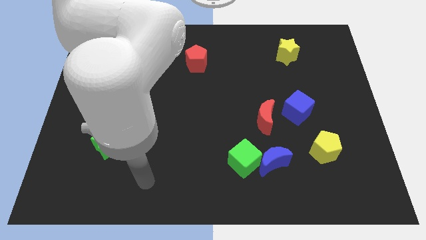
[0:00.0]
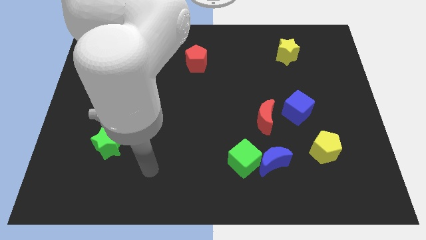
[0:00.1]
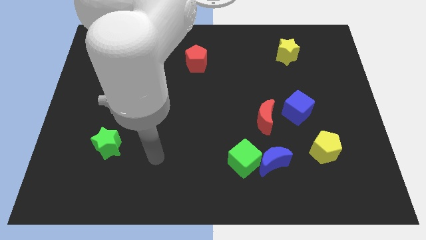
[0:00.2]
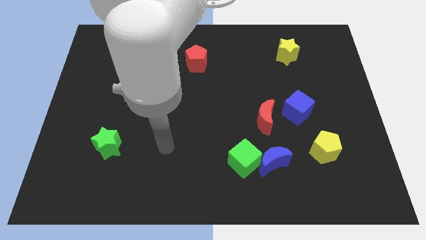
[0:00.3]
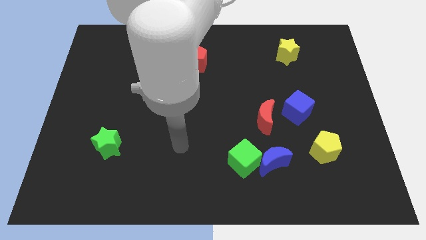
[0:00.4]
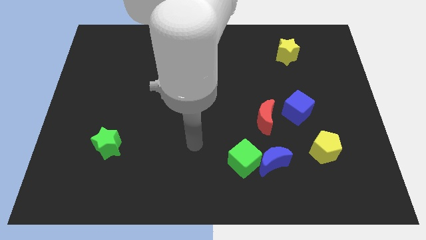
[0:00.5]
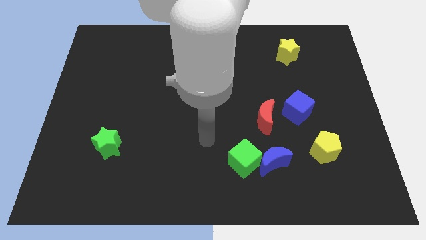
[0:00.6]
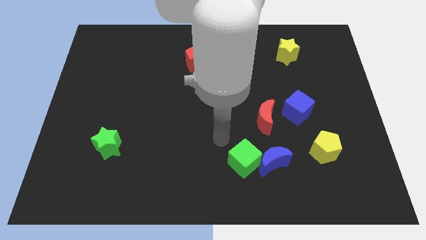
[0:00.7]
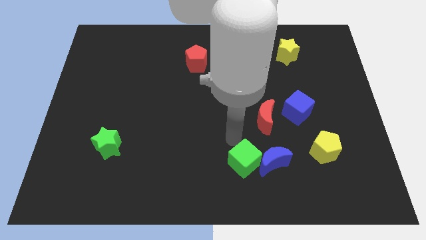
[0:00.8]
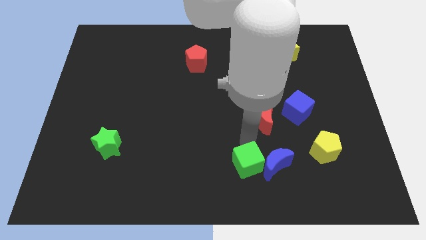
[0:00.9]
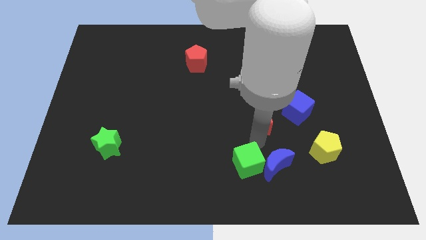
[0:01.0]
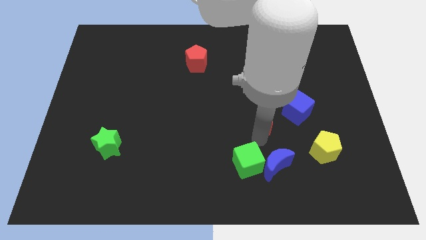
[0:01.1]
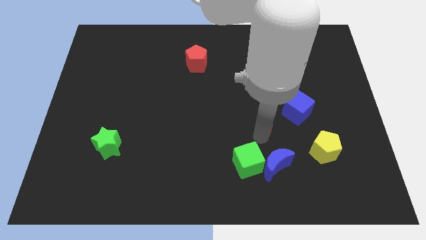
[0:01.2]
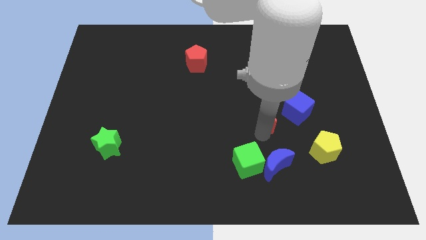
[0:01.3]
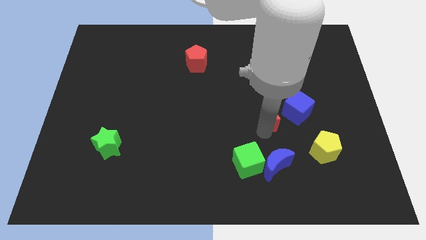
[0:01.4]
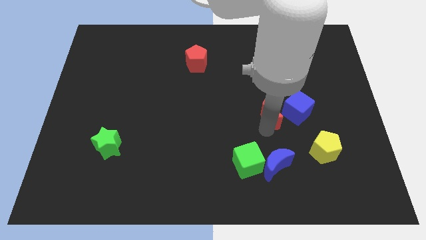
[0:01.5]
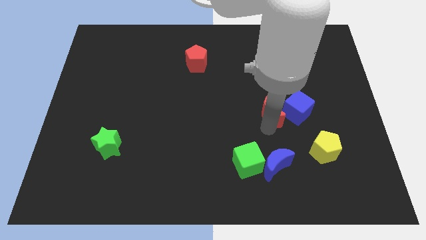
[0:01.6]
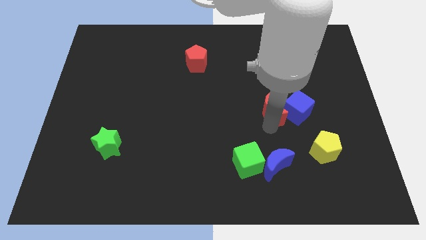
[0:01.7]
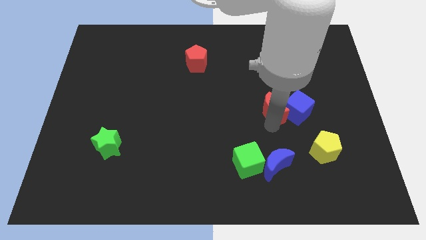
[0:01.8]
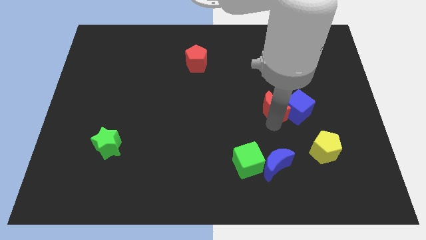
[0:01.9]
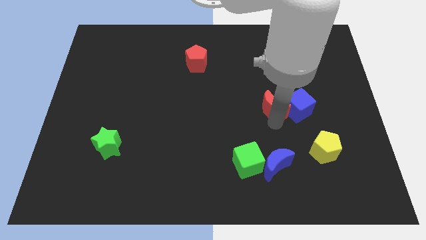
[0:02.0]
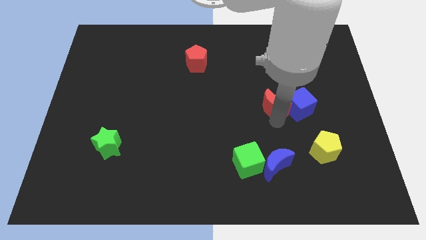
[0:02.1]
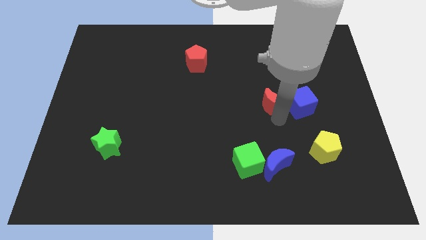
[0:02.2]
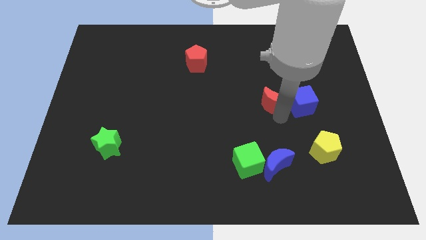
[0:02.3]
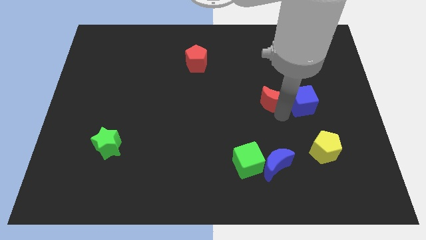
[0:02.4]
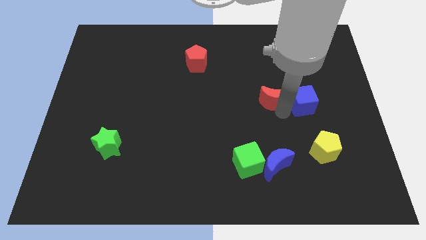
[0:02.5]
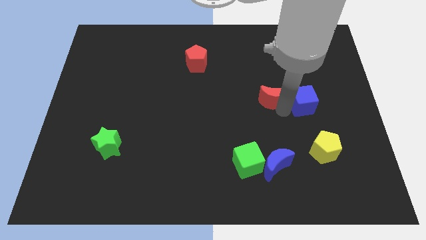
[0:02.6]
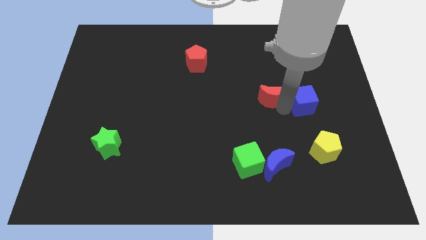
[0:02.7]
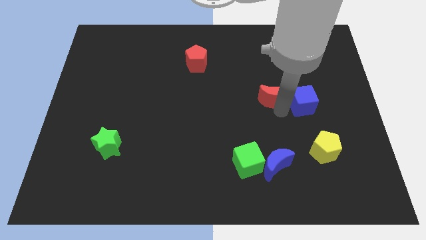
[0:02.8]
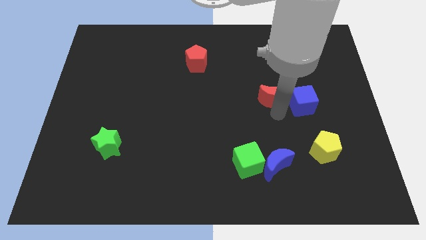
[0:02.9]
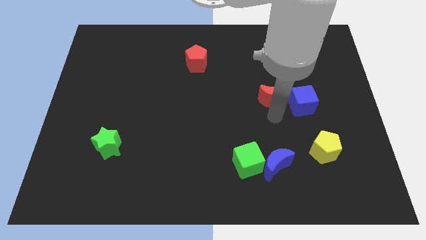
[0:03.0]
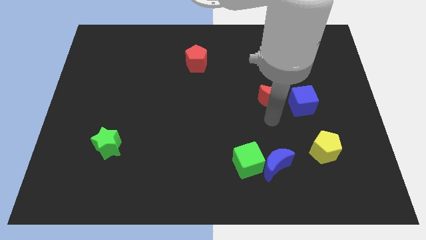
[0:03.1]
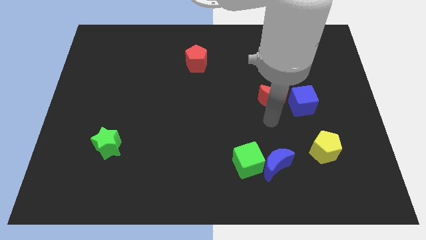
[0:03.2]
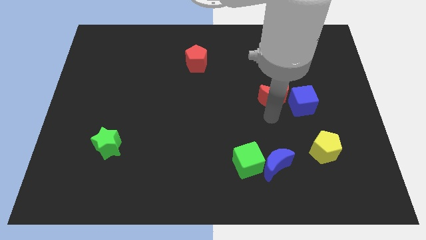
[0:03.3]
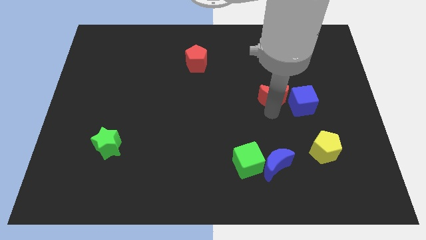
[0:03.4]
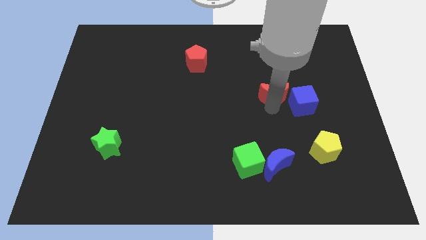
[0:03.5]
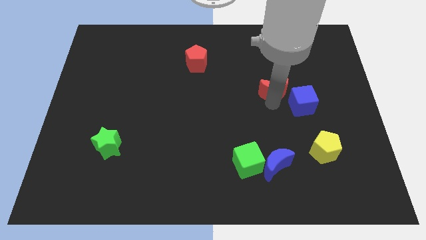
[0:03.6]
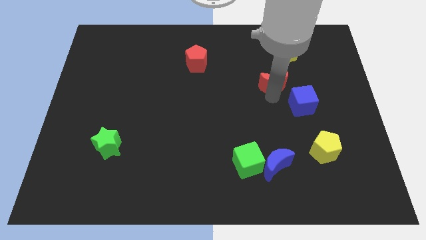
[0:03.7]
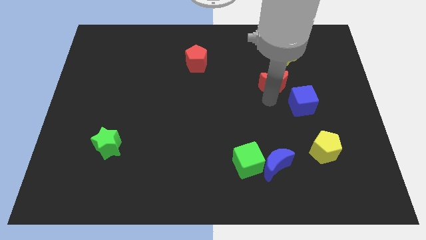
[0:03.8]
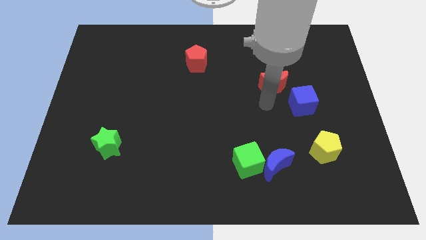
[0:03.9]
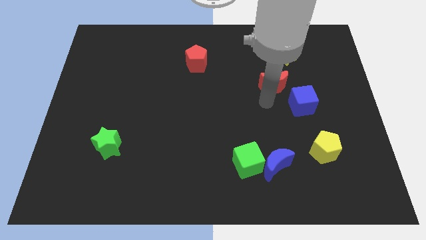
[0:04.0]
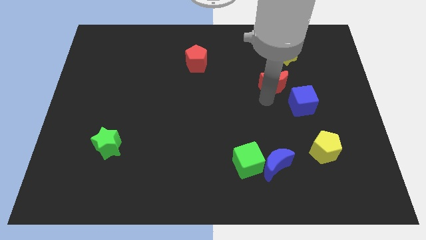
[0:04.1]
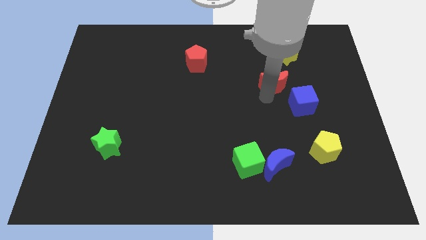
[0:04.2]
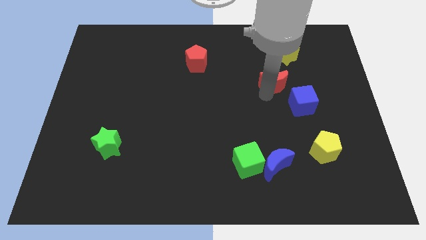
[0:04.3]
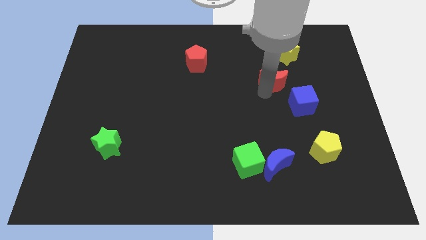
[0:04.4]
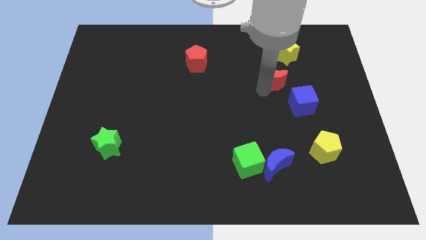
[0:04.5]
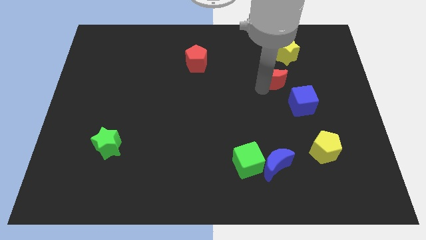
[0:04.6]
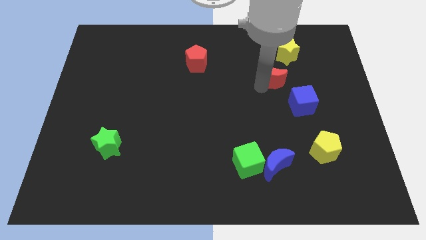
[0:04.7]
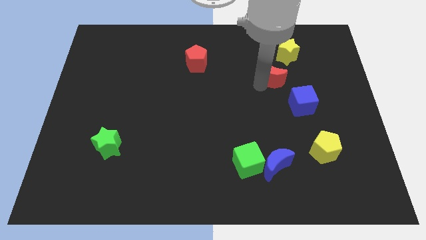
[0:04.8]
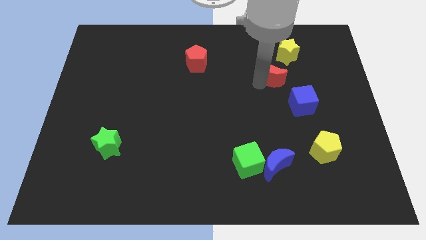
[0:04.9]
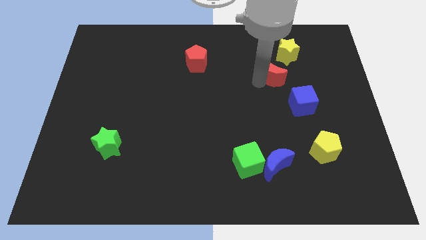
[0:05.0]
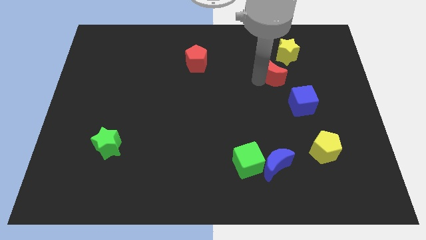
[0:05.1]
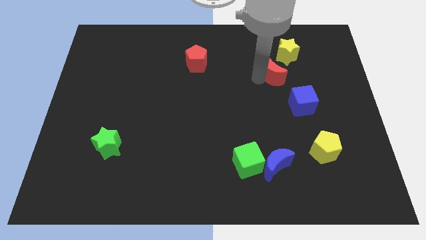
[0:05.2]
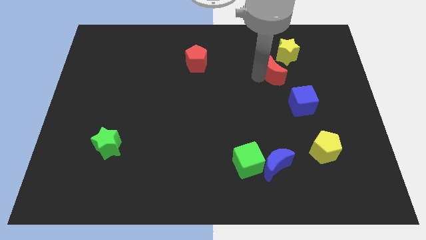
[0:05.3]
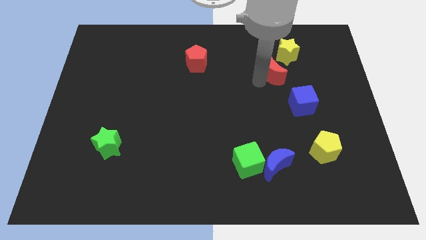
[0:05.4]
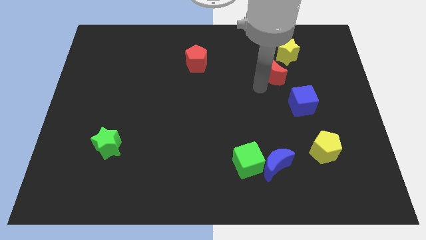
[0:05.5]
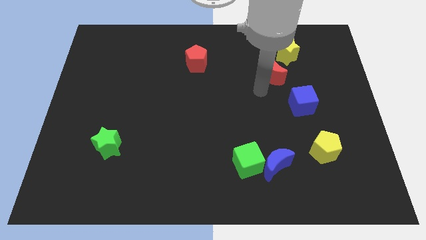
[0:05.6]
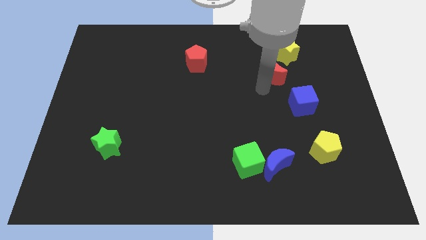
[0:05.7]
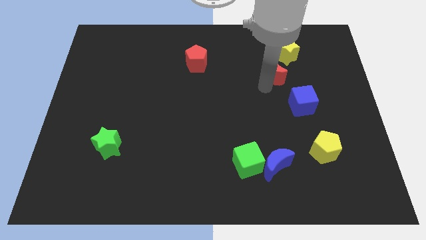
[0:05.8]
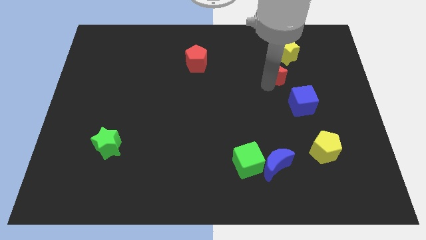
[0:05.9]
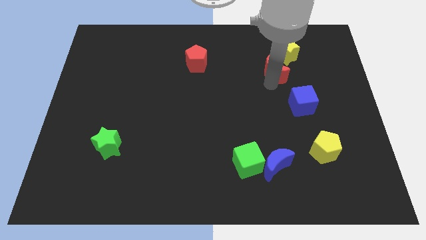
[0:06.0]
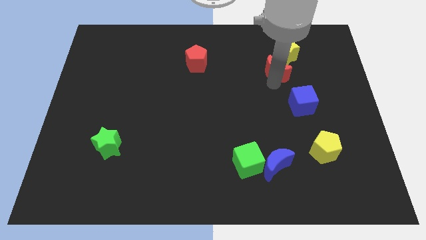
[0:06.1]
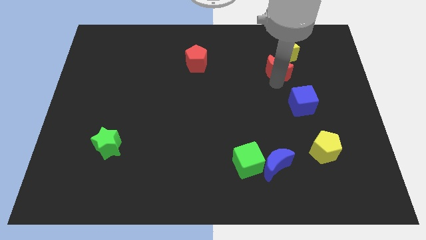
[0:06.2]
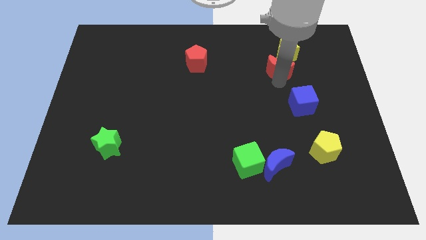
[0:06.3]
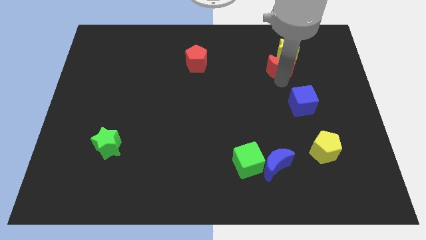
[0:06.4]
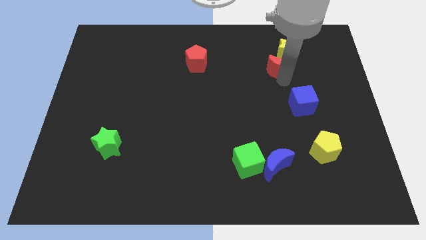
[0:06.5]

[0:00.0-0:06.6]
push the red moon to the yellow star

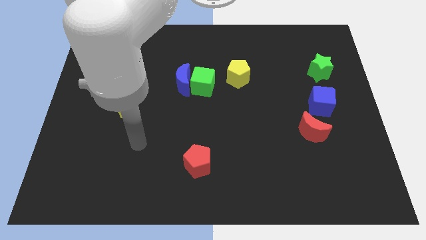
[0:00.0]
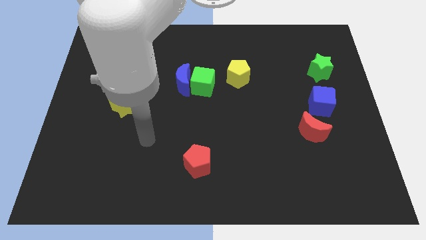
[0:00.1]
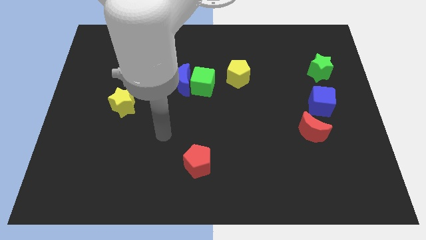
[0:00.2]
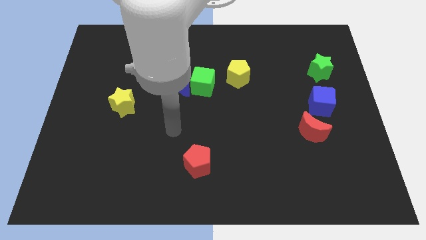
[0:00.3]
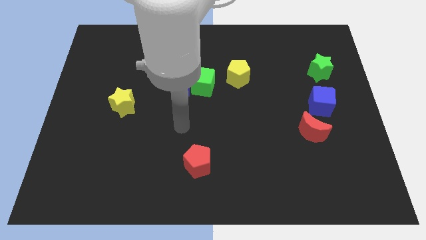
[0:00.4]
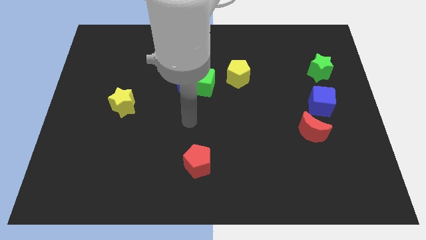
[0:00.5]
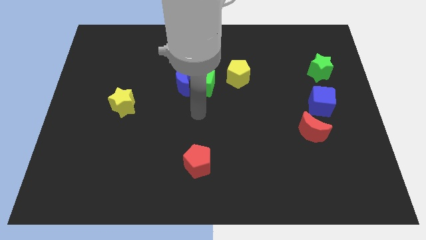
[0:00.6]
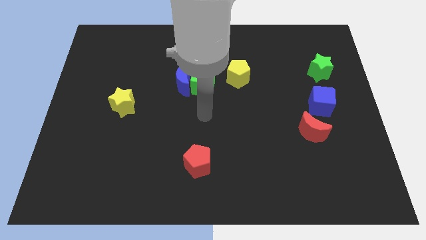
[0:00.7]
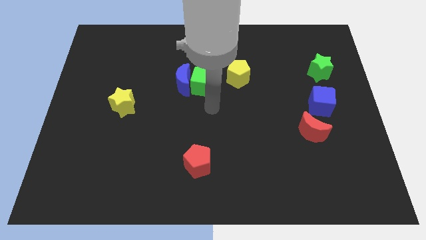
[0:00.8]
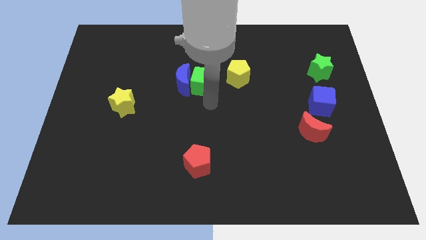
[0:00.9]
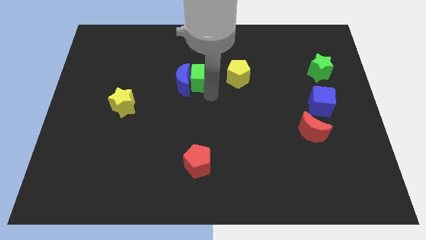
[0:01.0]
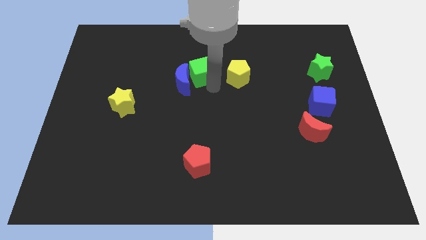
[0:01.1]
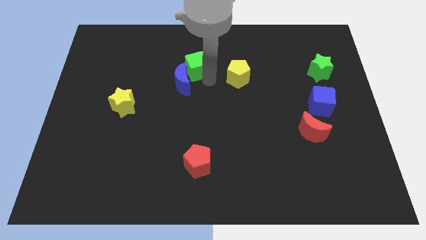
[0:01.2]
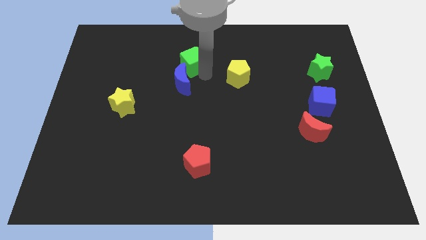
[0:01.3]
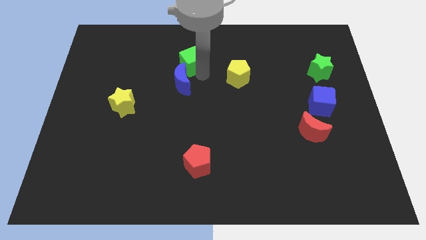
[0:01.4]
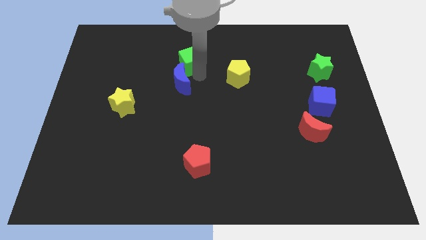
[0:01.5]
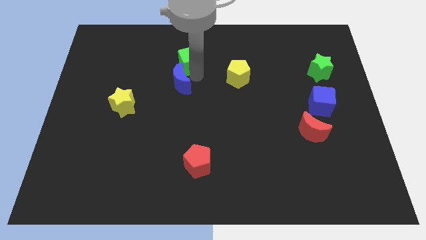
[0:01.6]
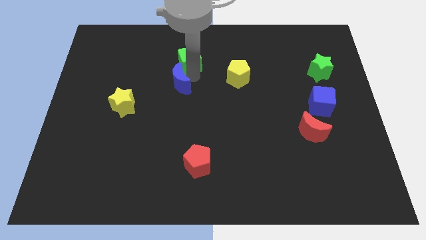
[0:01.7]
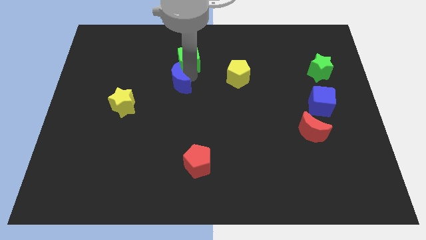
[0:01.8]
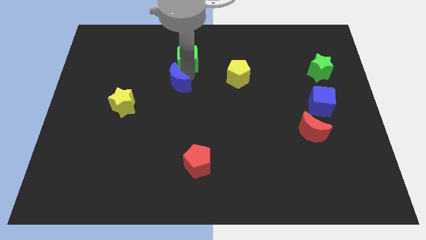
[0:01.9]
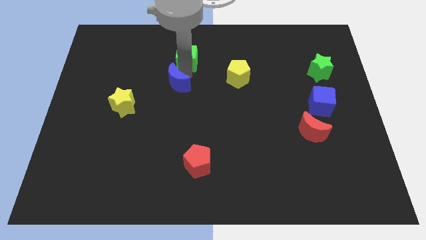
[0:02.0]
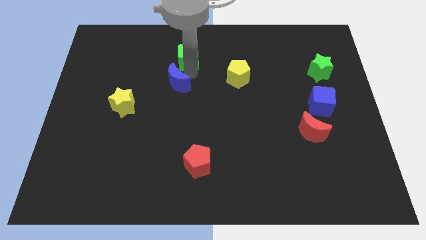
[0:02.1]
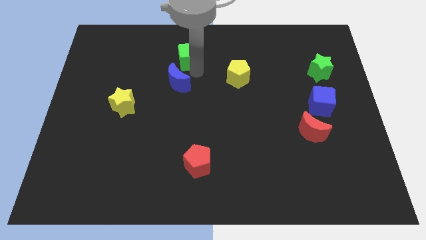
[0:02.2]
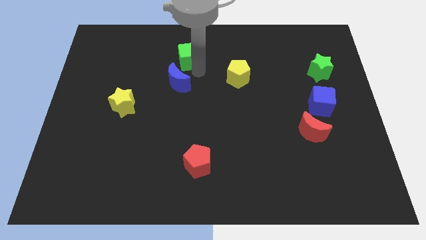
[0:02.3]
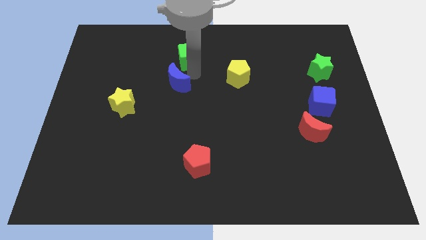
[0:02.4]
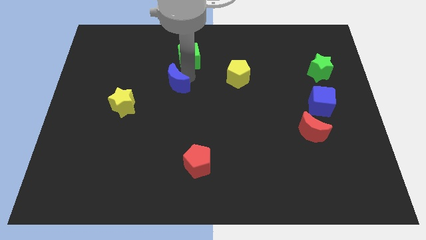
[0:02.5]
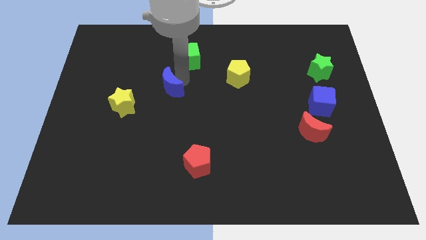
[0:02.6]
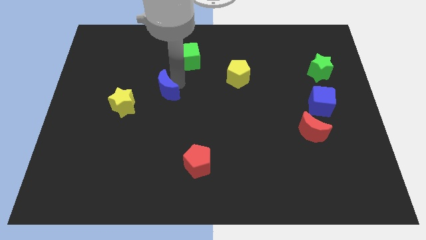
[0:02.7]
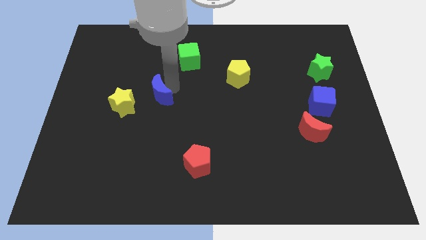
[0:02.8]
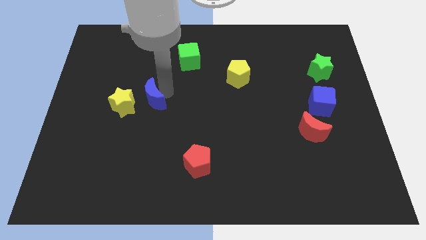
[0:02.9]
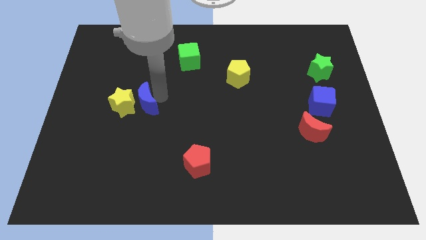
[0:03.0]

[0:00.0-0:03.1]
push the blue moon towards the yellow star
